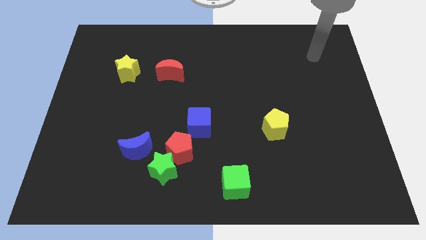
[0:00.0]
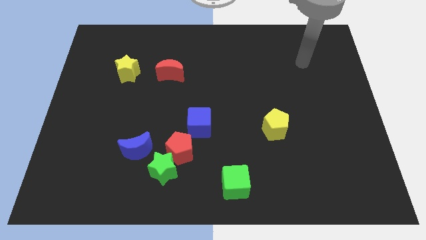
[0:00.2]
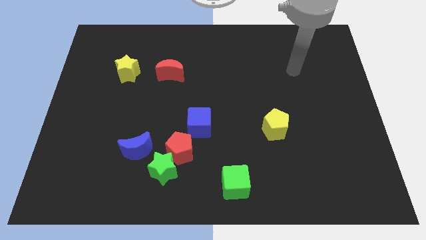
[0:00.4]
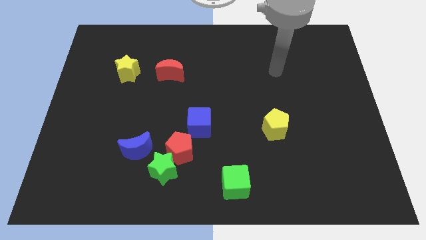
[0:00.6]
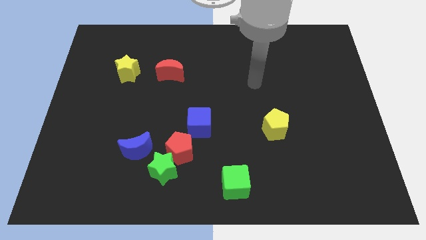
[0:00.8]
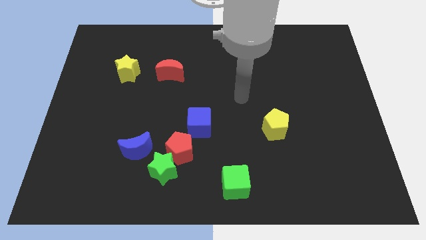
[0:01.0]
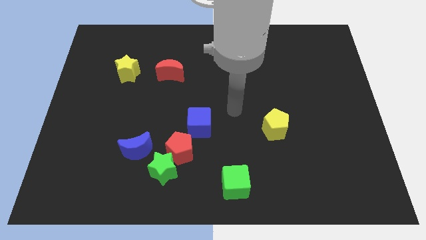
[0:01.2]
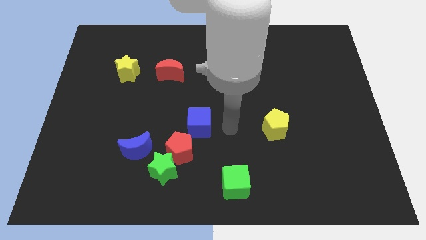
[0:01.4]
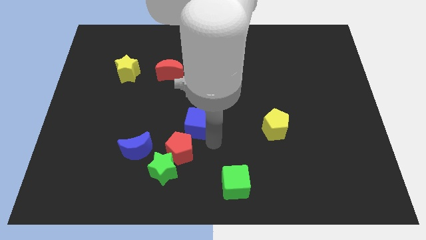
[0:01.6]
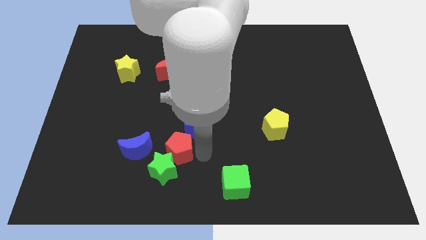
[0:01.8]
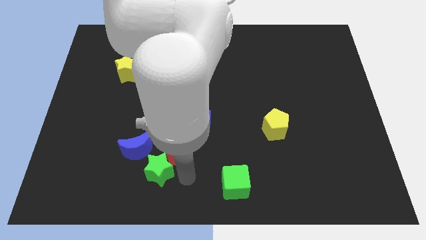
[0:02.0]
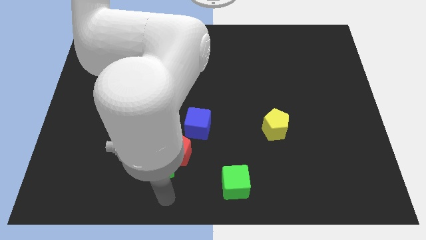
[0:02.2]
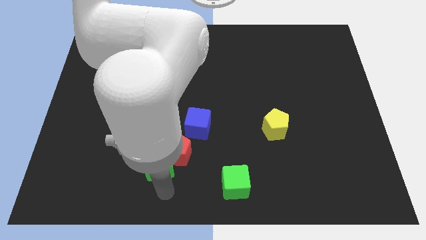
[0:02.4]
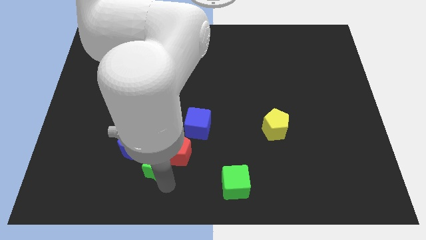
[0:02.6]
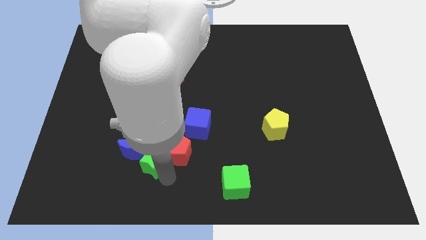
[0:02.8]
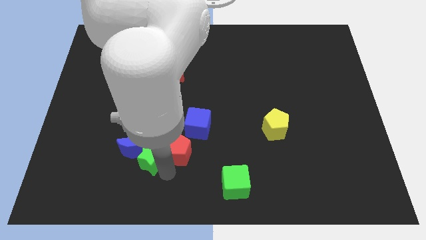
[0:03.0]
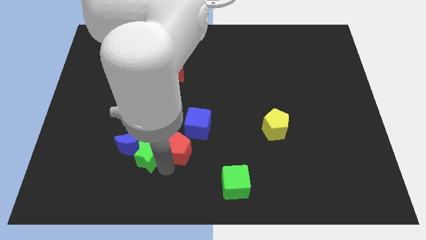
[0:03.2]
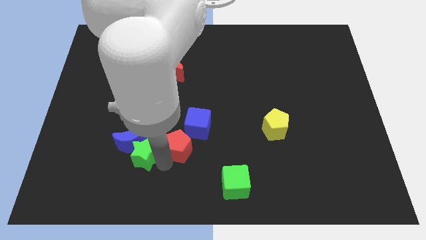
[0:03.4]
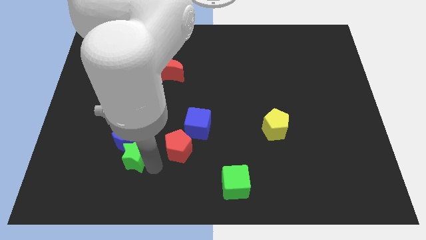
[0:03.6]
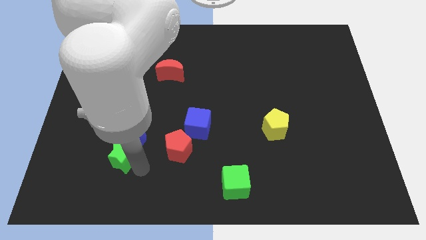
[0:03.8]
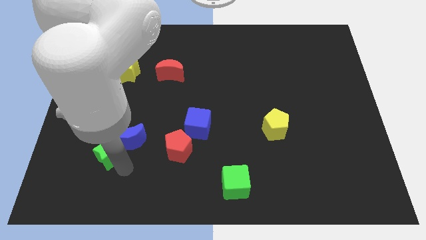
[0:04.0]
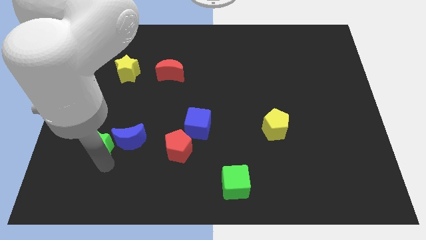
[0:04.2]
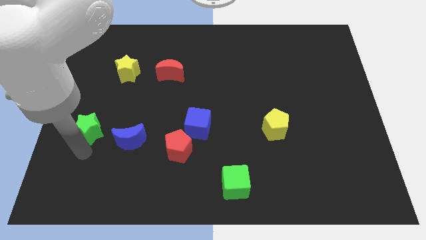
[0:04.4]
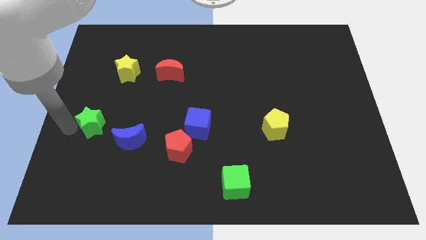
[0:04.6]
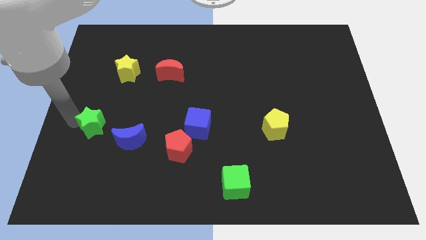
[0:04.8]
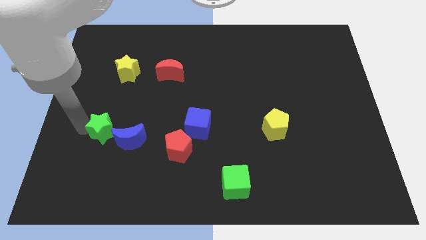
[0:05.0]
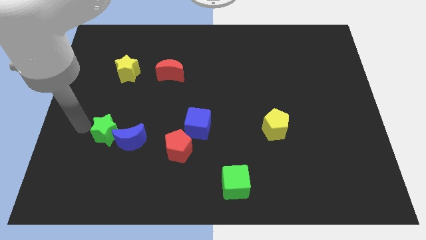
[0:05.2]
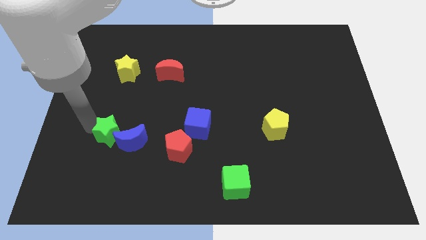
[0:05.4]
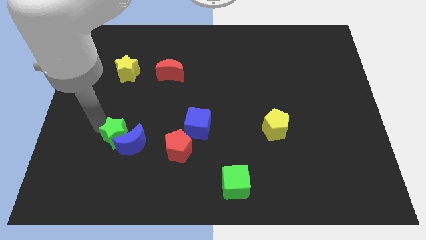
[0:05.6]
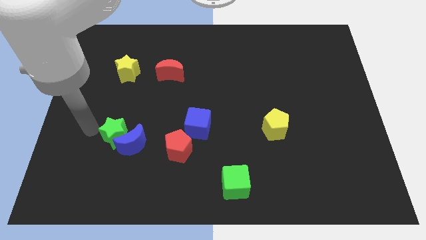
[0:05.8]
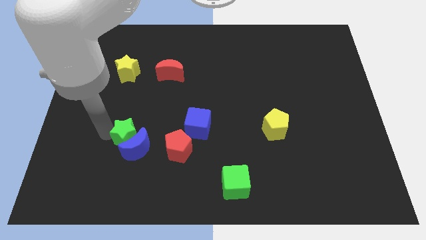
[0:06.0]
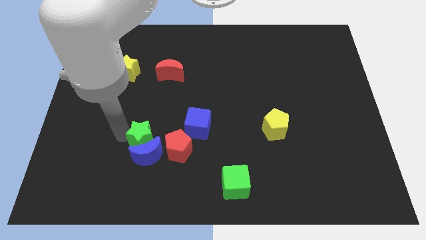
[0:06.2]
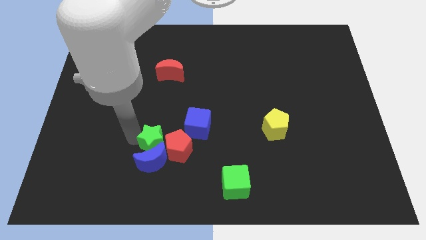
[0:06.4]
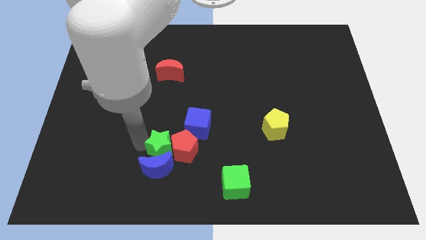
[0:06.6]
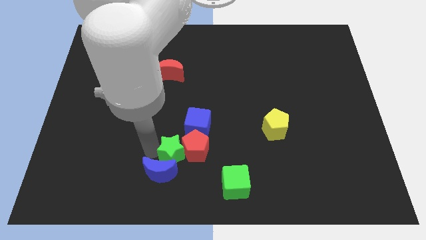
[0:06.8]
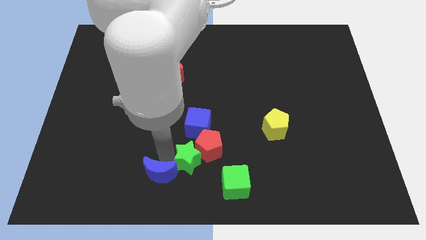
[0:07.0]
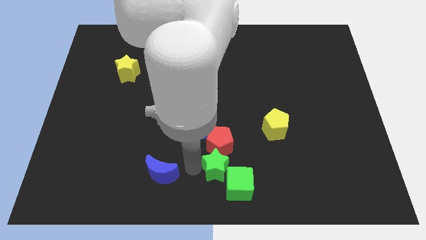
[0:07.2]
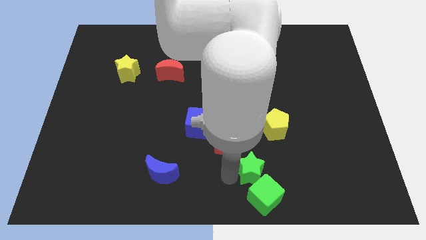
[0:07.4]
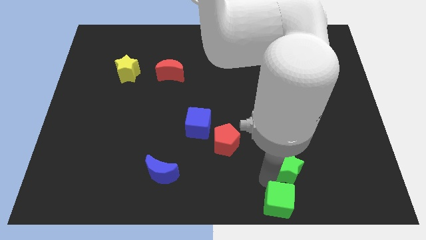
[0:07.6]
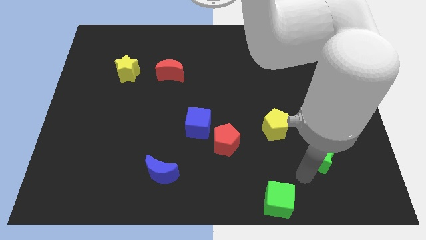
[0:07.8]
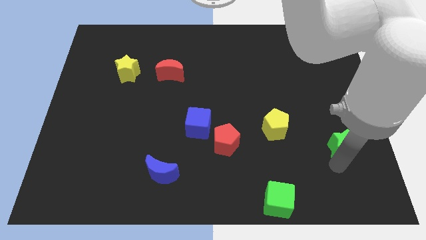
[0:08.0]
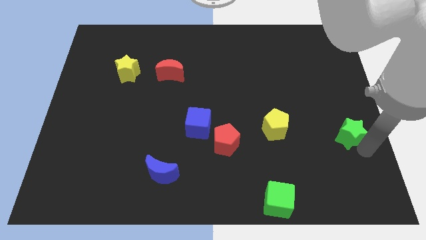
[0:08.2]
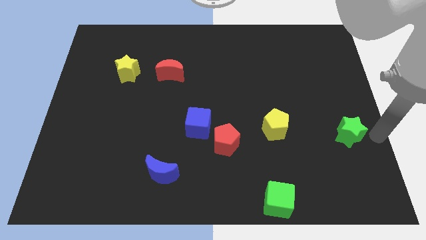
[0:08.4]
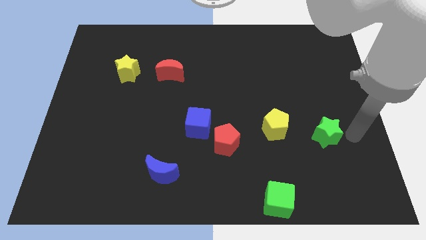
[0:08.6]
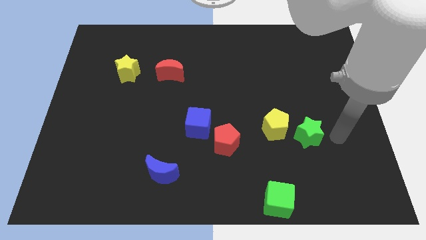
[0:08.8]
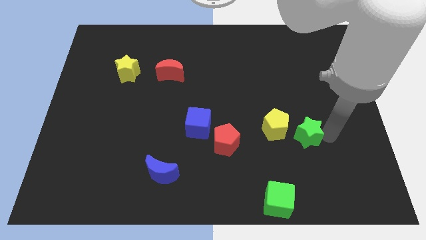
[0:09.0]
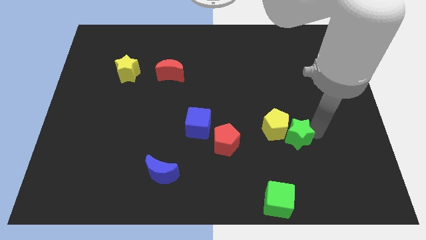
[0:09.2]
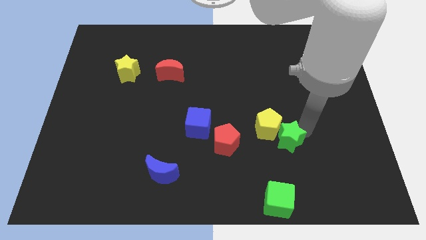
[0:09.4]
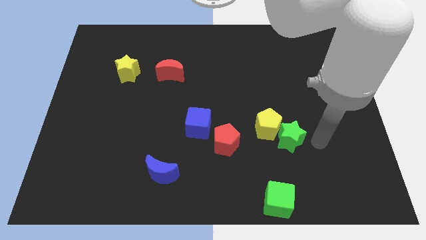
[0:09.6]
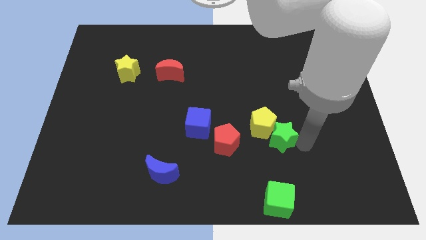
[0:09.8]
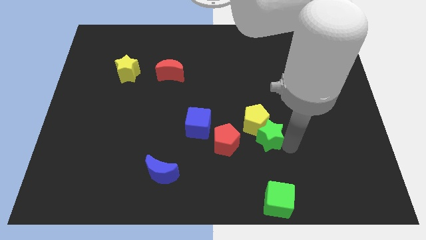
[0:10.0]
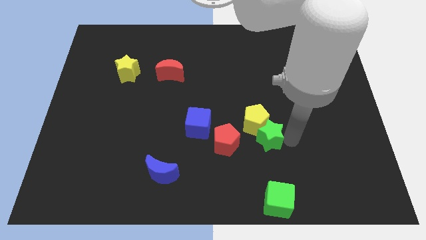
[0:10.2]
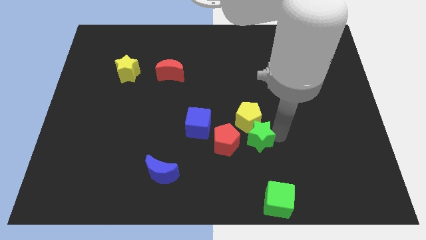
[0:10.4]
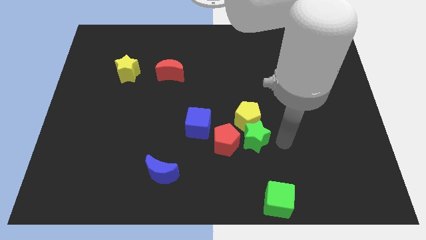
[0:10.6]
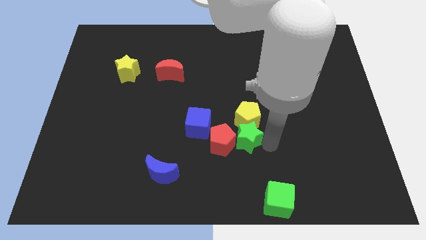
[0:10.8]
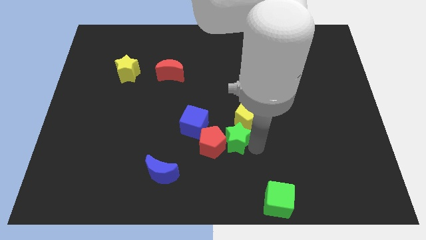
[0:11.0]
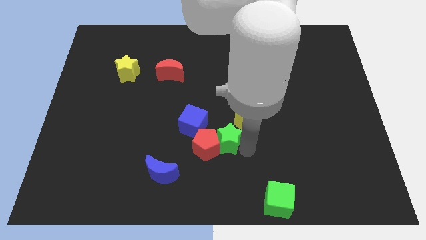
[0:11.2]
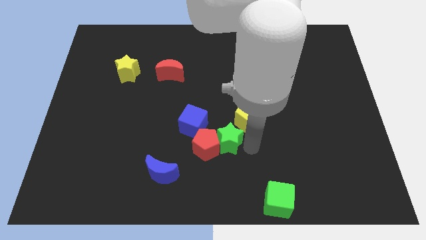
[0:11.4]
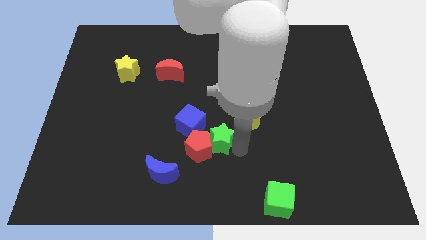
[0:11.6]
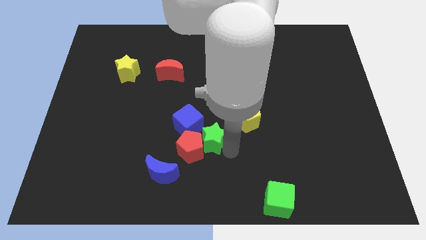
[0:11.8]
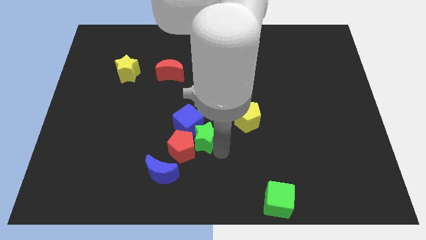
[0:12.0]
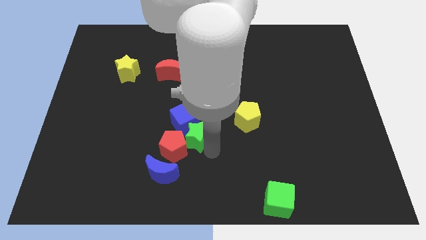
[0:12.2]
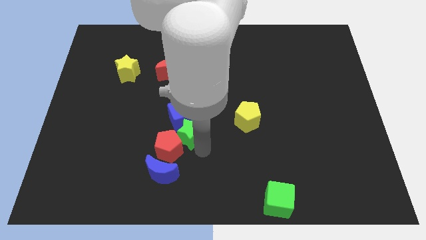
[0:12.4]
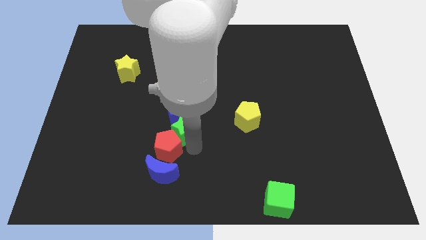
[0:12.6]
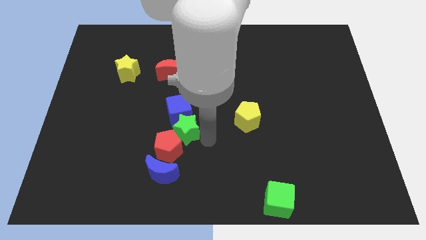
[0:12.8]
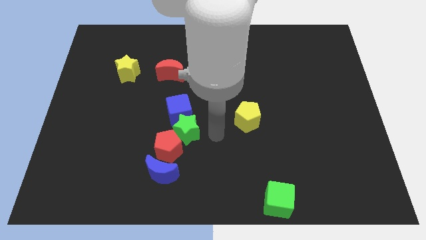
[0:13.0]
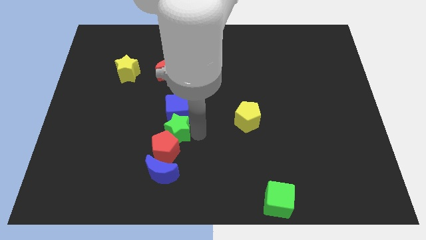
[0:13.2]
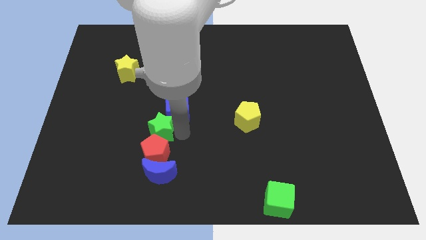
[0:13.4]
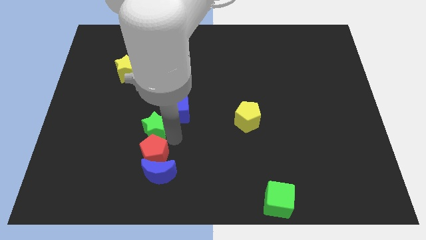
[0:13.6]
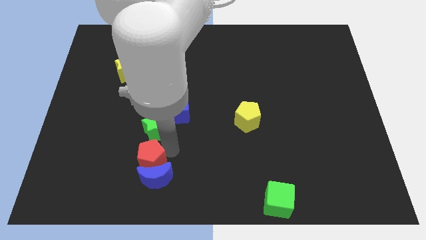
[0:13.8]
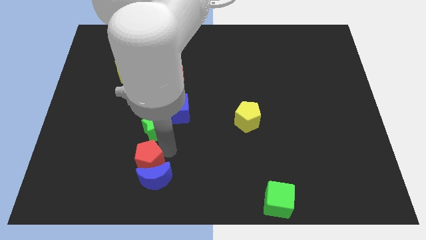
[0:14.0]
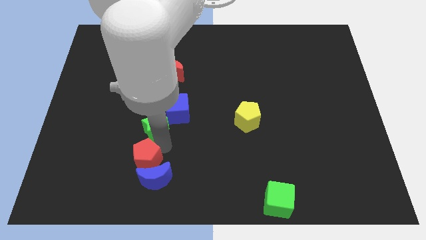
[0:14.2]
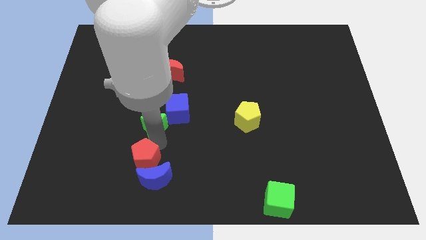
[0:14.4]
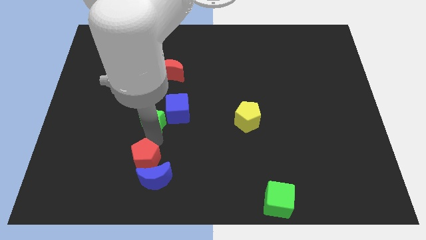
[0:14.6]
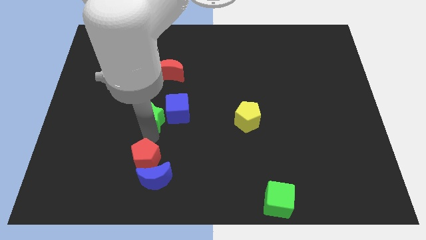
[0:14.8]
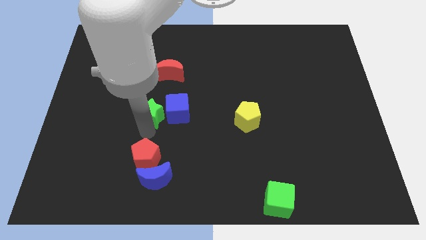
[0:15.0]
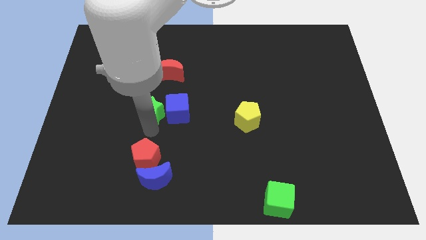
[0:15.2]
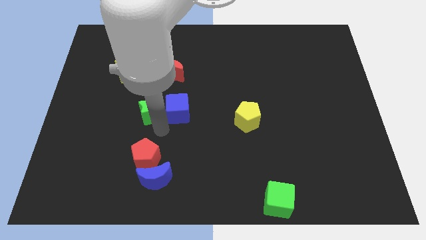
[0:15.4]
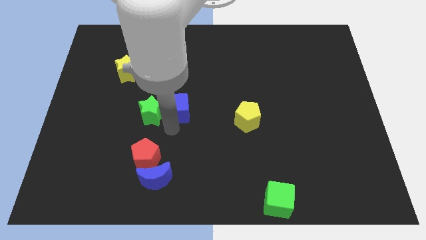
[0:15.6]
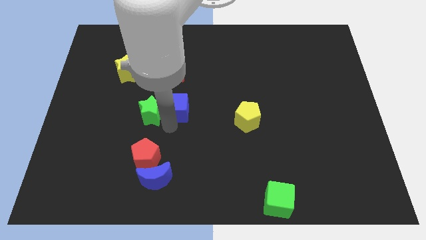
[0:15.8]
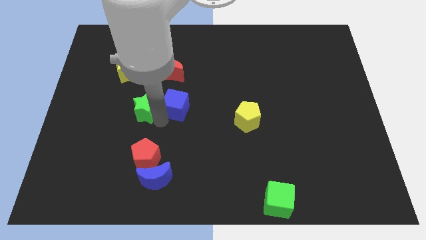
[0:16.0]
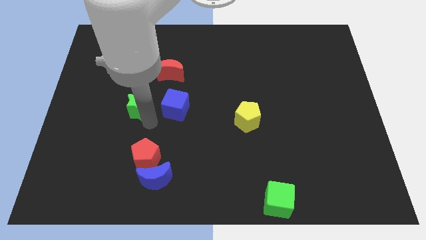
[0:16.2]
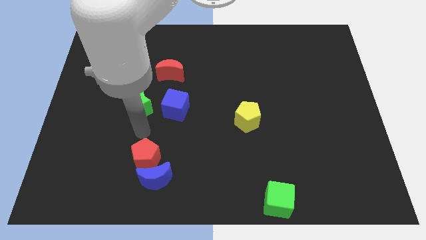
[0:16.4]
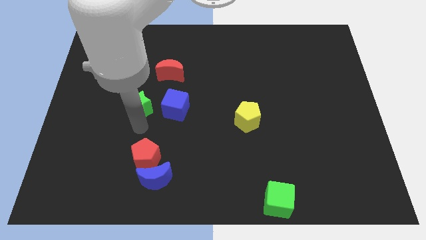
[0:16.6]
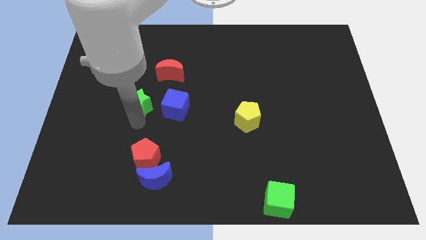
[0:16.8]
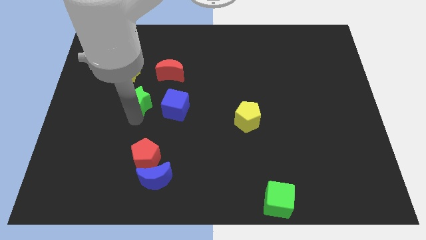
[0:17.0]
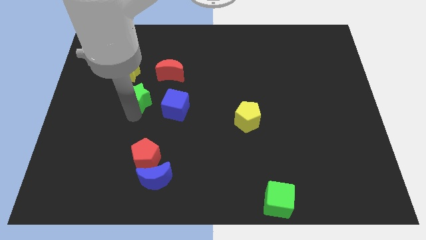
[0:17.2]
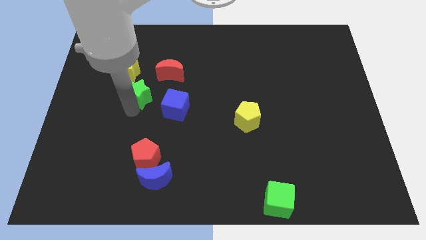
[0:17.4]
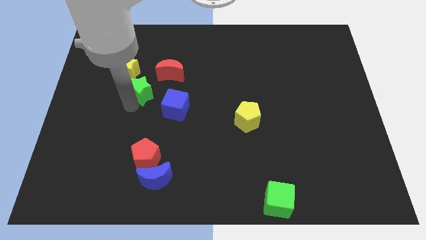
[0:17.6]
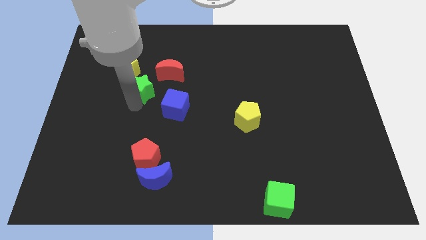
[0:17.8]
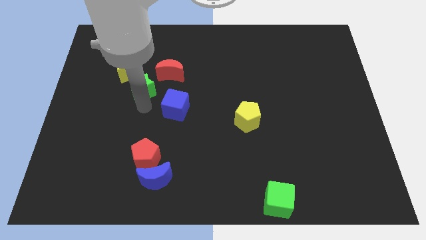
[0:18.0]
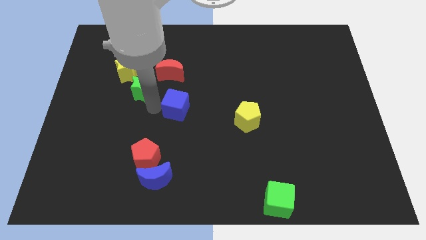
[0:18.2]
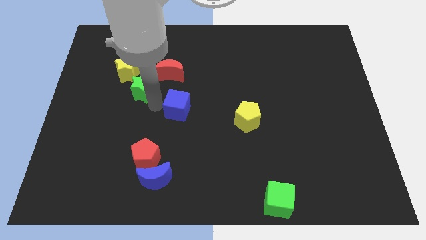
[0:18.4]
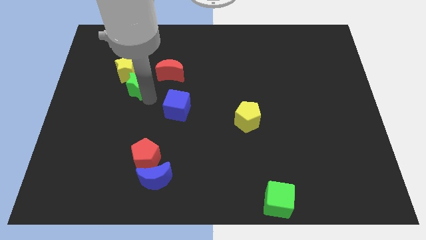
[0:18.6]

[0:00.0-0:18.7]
move the green star to the yellow star
